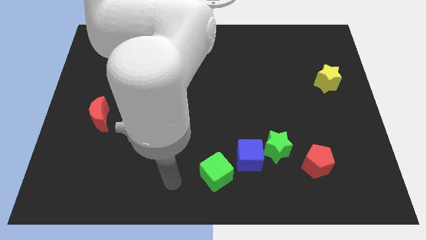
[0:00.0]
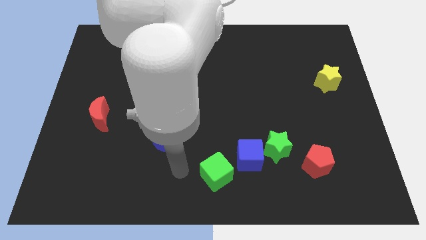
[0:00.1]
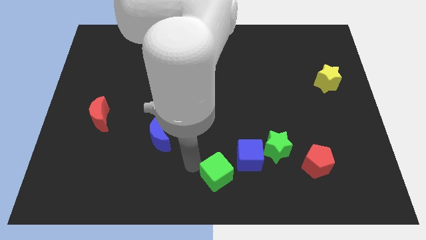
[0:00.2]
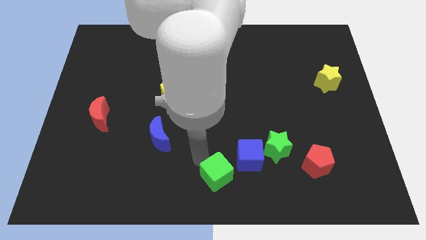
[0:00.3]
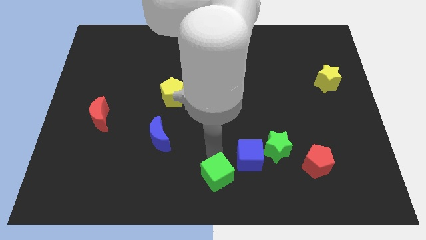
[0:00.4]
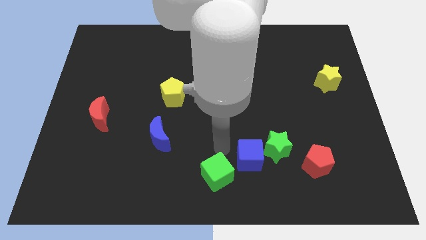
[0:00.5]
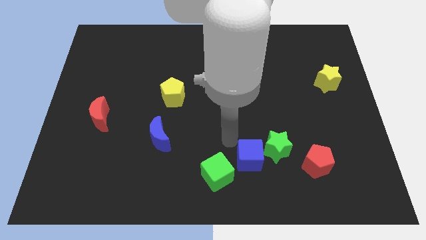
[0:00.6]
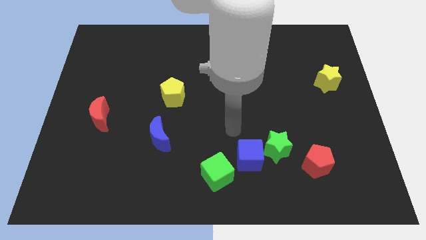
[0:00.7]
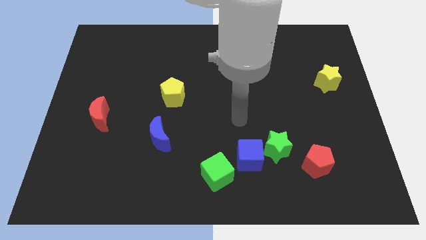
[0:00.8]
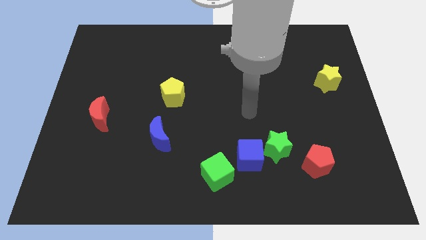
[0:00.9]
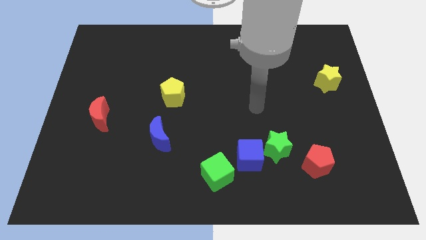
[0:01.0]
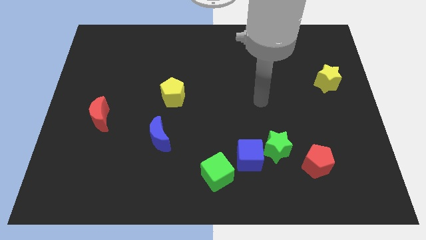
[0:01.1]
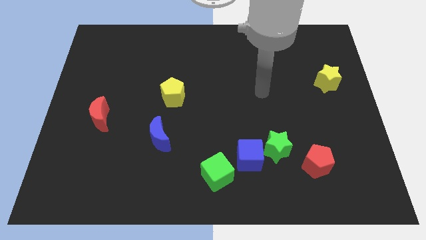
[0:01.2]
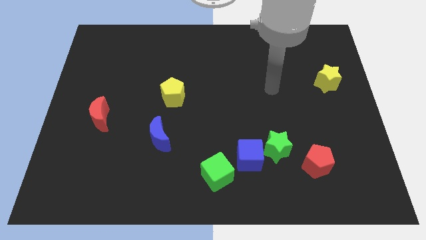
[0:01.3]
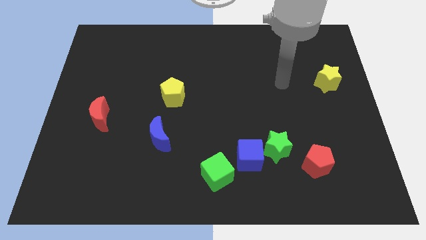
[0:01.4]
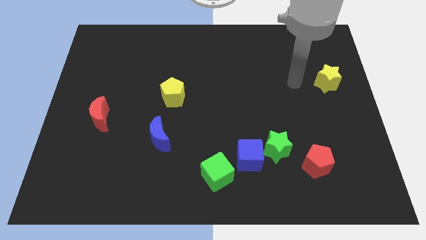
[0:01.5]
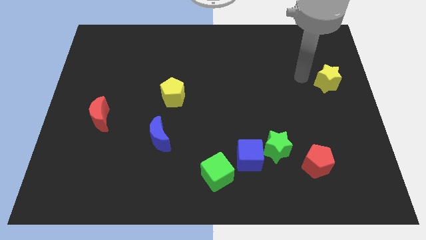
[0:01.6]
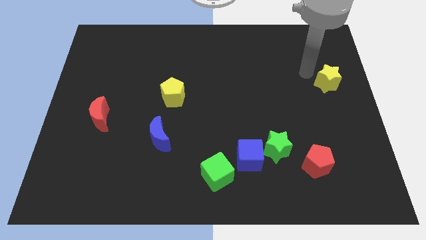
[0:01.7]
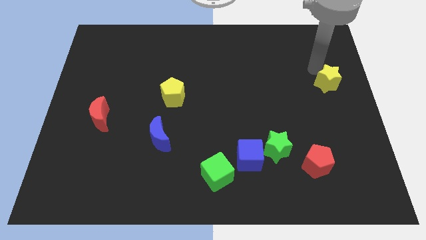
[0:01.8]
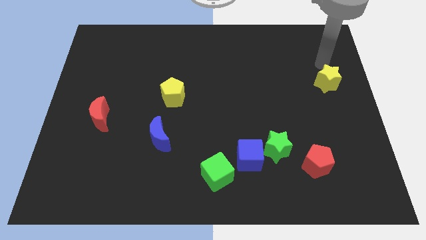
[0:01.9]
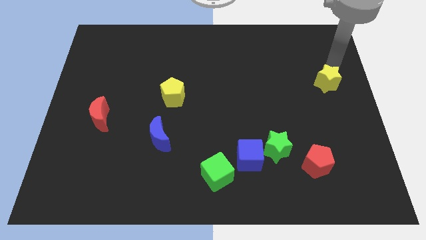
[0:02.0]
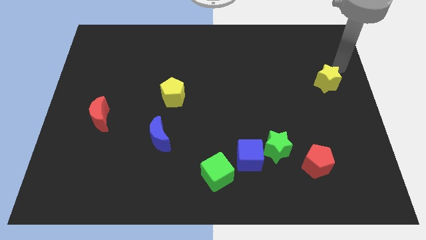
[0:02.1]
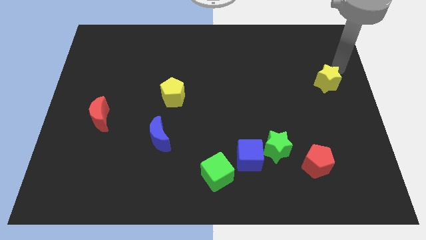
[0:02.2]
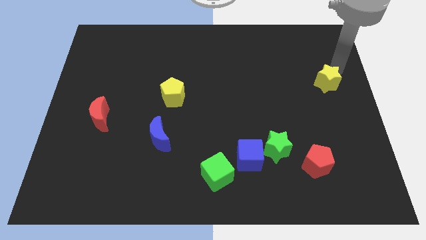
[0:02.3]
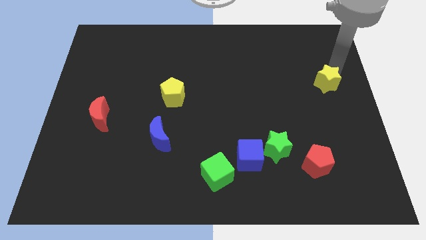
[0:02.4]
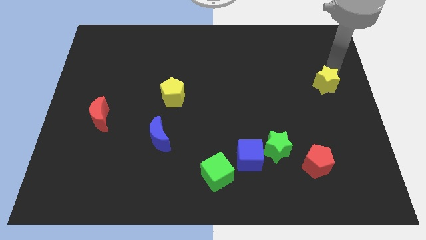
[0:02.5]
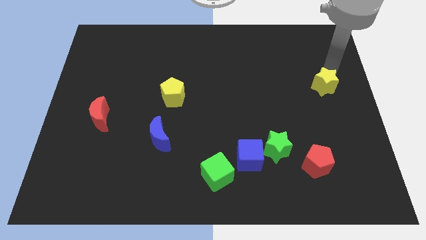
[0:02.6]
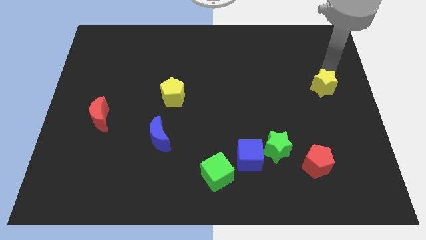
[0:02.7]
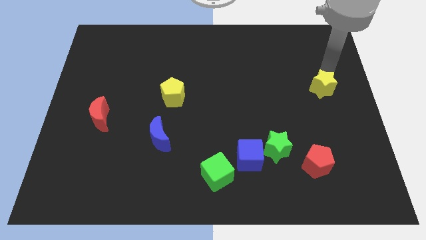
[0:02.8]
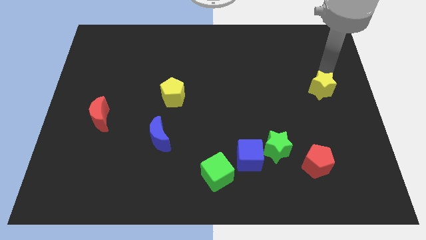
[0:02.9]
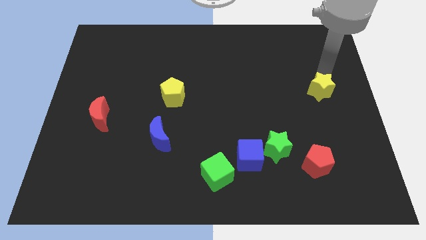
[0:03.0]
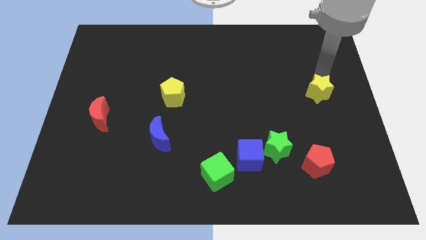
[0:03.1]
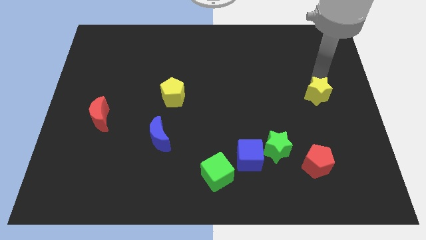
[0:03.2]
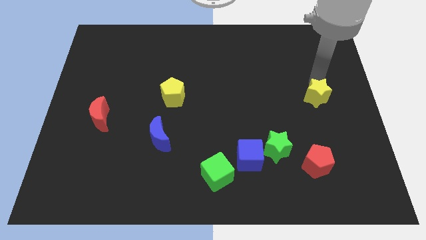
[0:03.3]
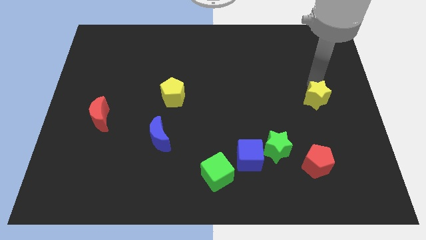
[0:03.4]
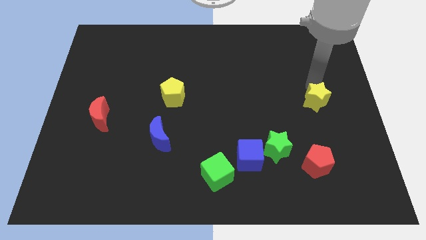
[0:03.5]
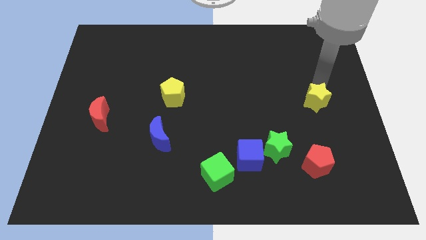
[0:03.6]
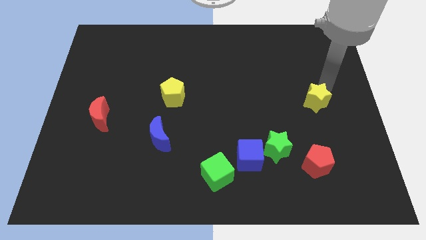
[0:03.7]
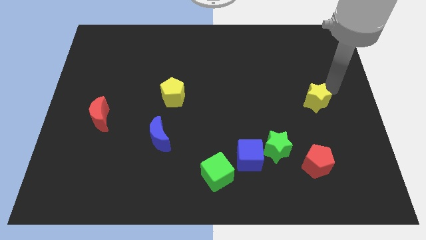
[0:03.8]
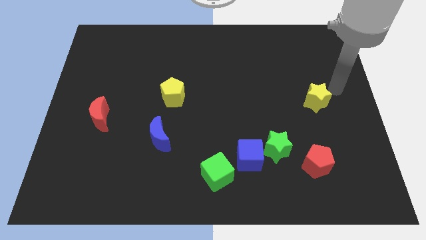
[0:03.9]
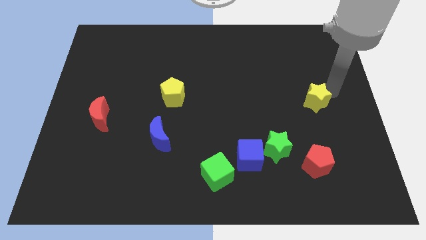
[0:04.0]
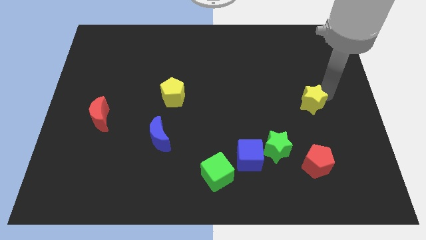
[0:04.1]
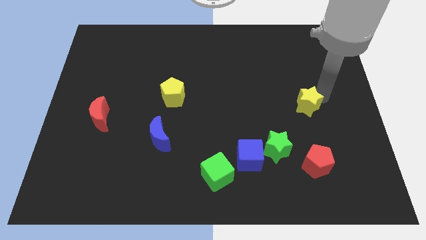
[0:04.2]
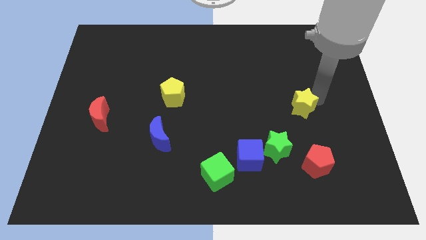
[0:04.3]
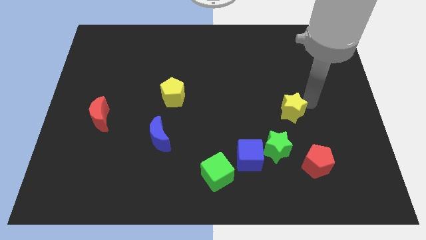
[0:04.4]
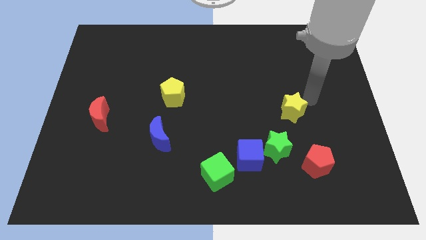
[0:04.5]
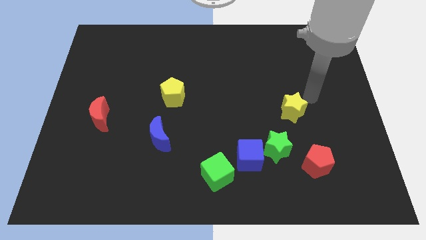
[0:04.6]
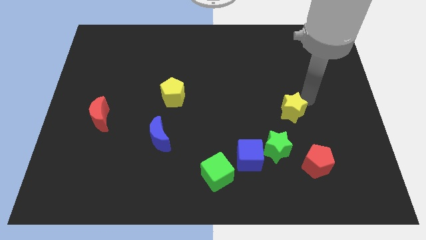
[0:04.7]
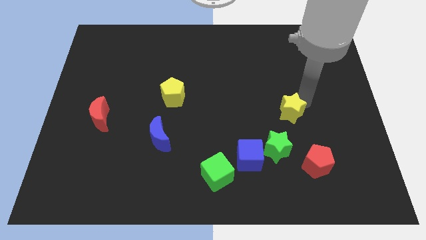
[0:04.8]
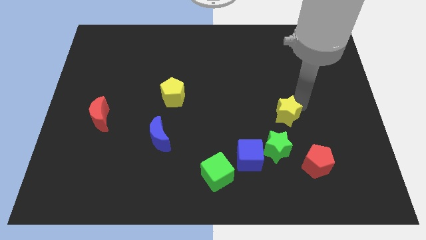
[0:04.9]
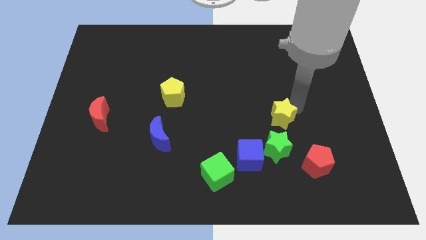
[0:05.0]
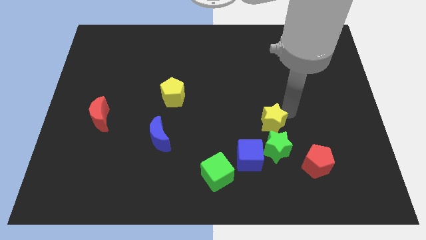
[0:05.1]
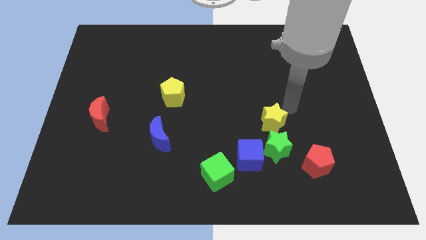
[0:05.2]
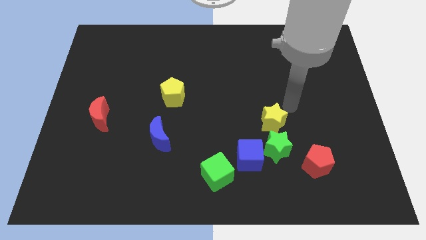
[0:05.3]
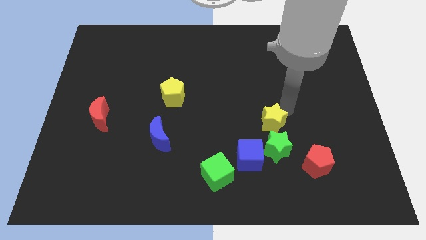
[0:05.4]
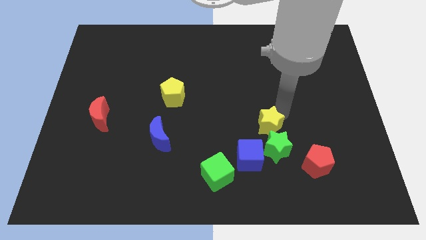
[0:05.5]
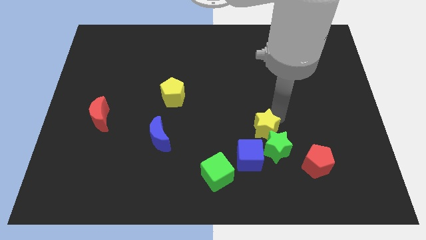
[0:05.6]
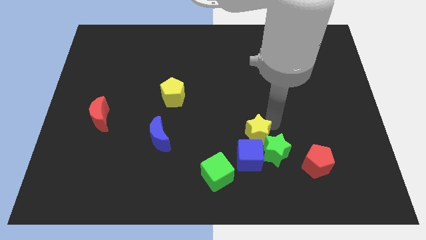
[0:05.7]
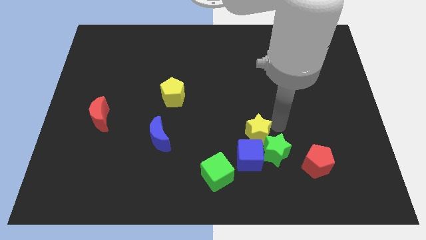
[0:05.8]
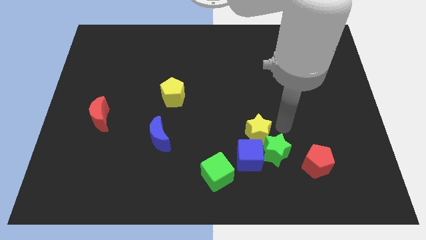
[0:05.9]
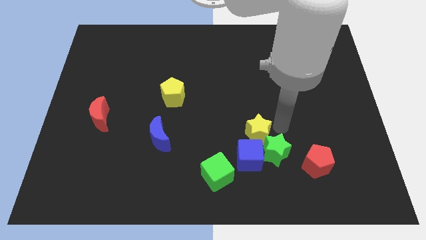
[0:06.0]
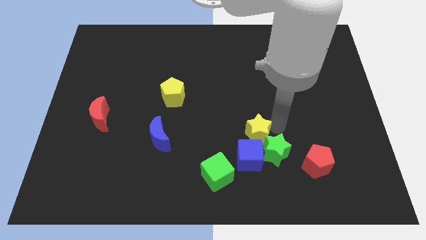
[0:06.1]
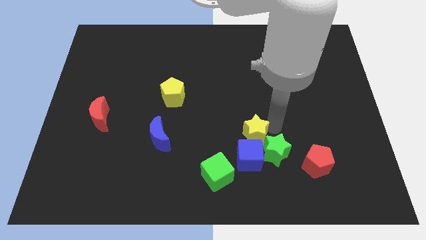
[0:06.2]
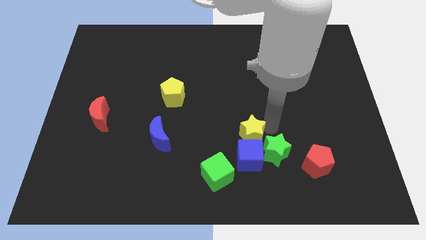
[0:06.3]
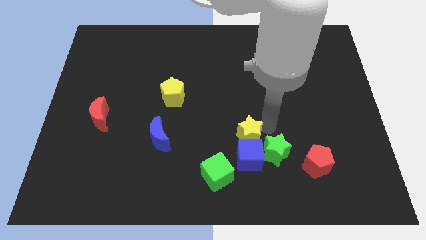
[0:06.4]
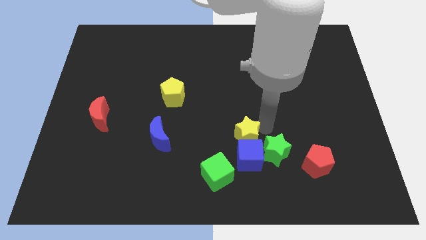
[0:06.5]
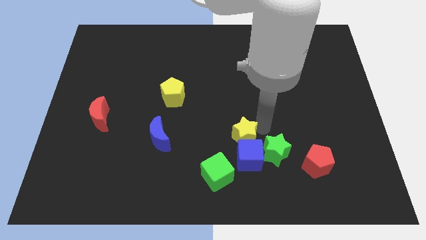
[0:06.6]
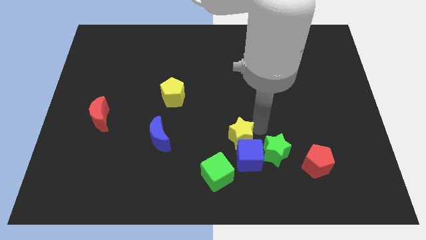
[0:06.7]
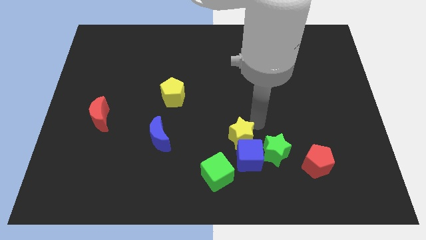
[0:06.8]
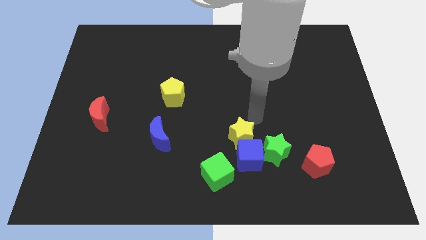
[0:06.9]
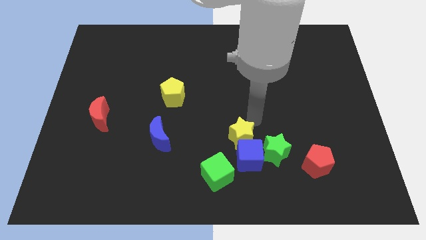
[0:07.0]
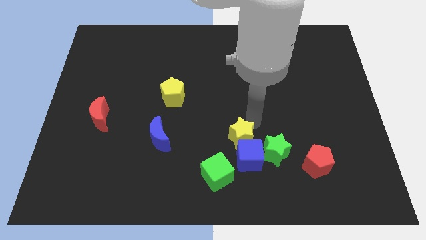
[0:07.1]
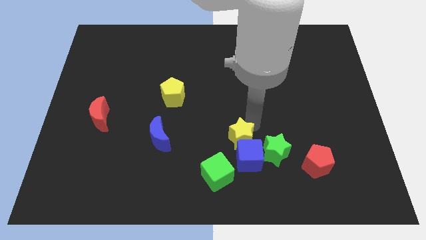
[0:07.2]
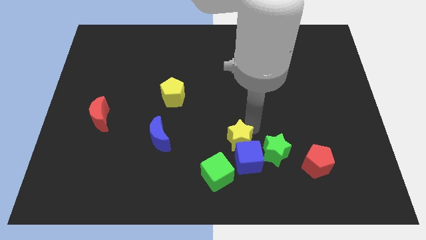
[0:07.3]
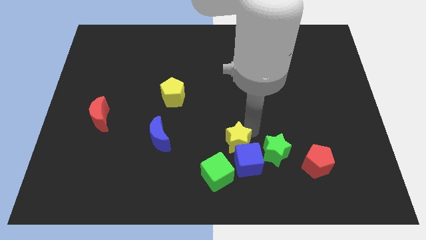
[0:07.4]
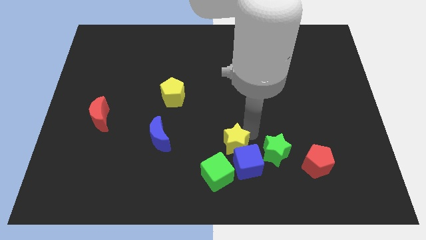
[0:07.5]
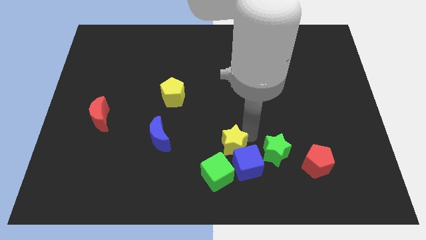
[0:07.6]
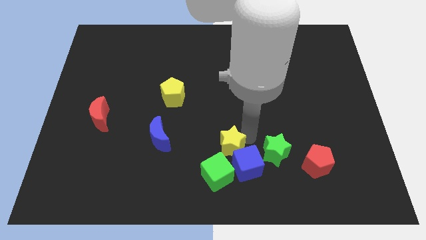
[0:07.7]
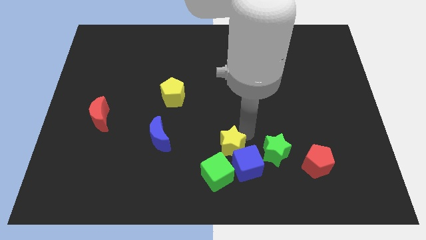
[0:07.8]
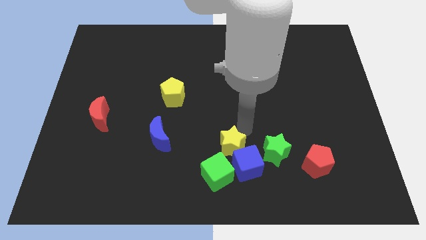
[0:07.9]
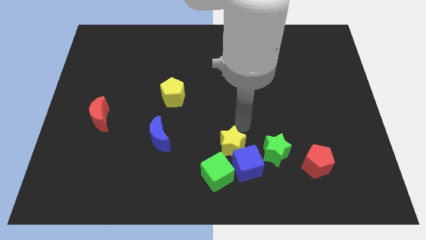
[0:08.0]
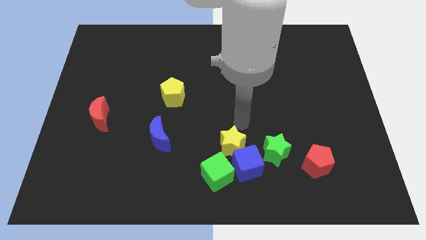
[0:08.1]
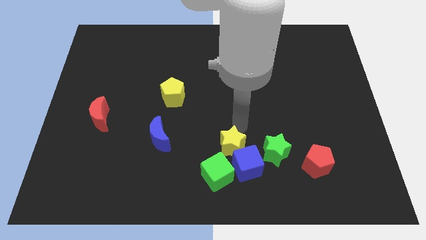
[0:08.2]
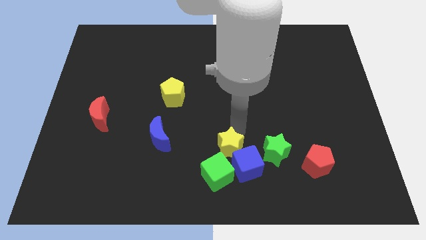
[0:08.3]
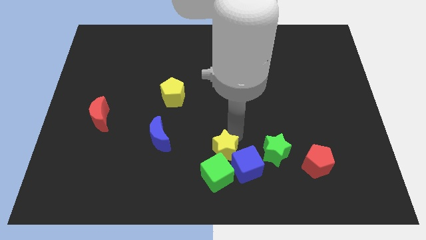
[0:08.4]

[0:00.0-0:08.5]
move the yellow star towards the green cube
